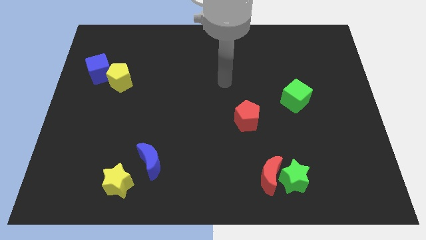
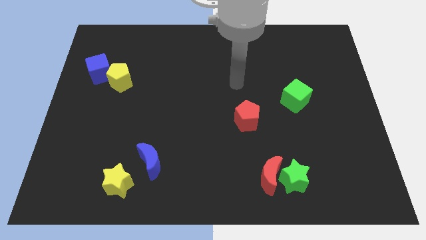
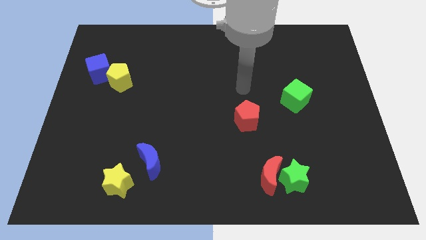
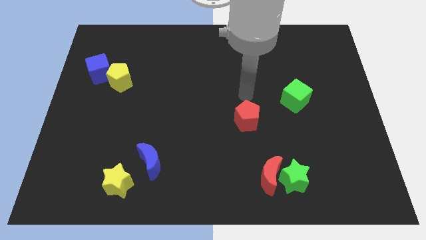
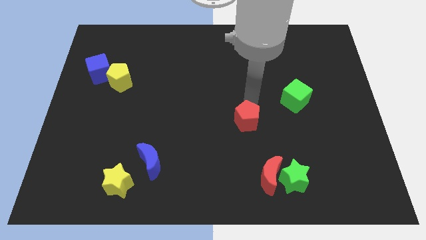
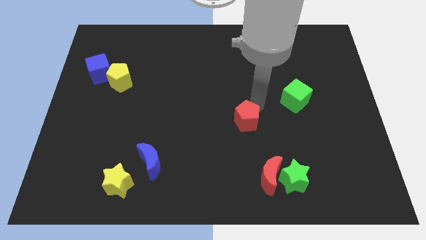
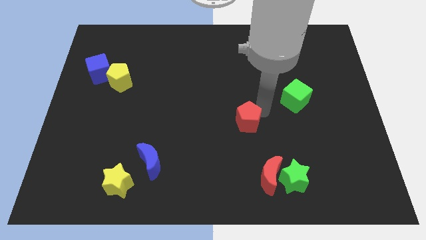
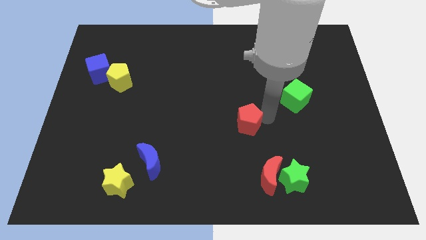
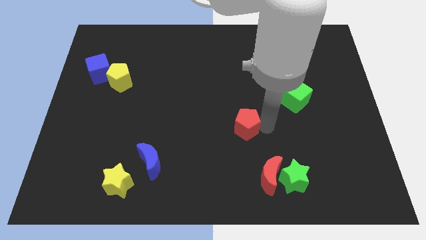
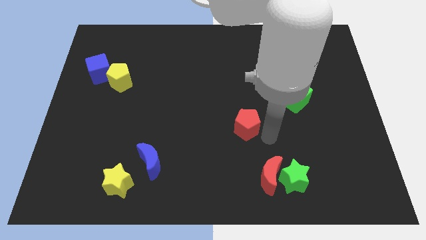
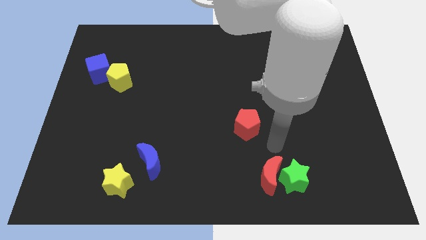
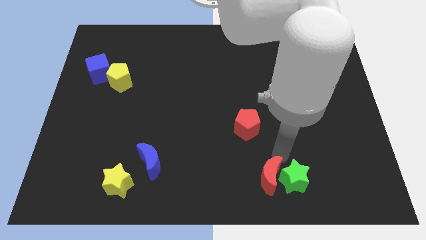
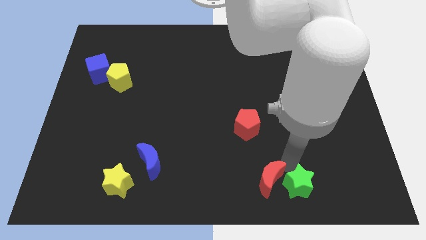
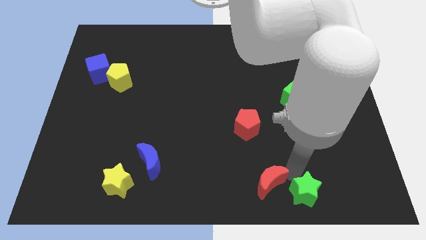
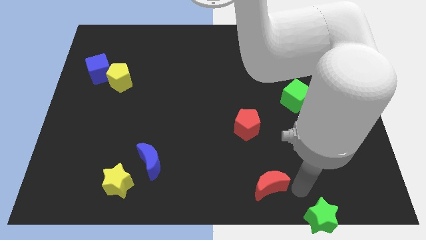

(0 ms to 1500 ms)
move the red moon away from the green star

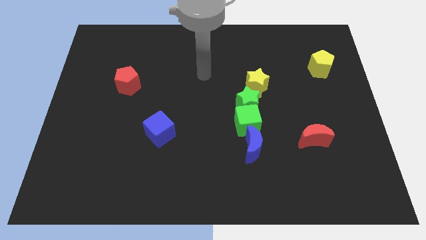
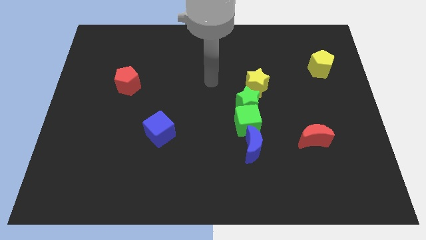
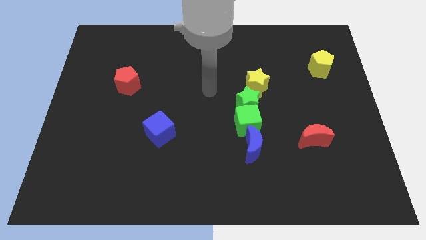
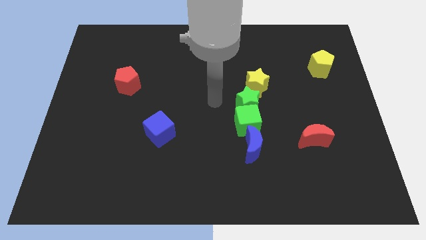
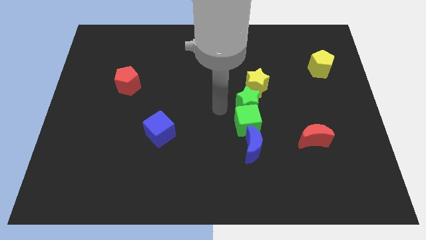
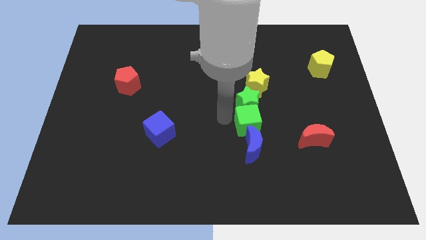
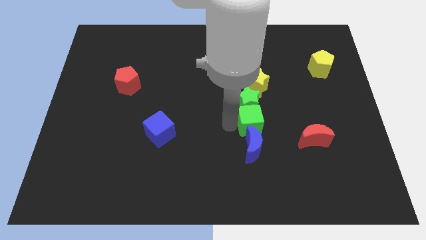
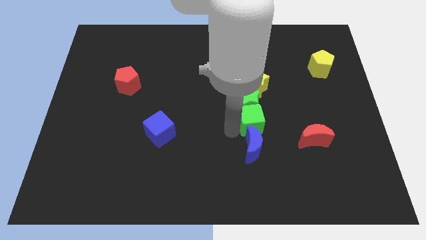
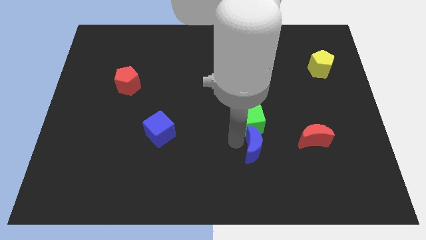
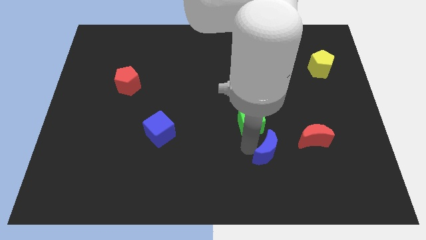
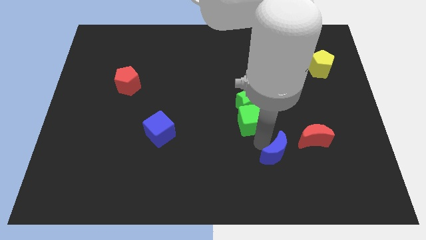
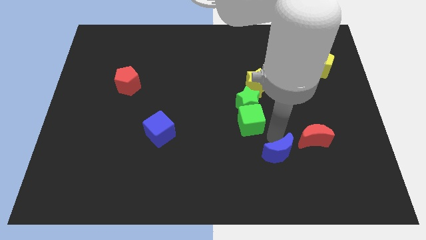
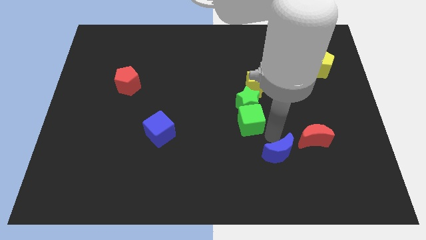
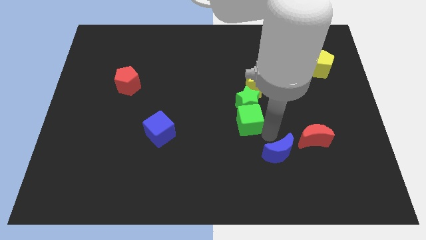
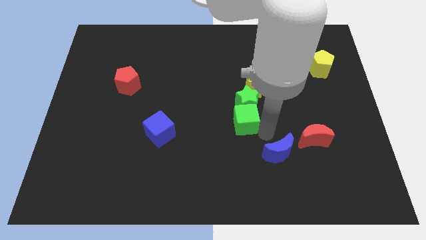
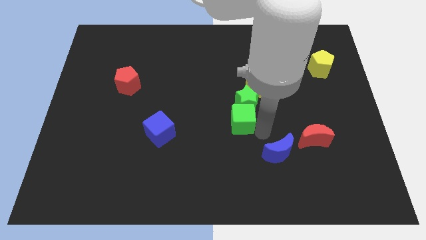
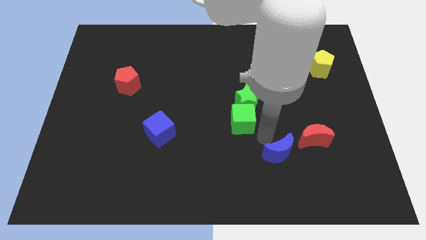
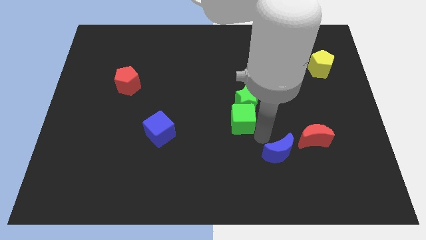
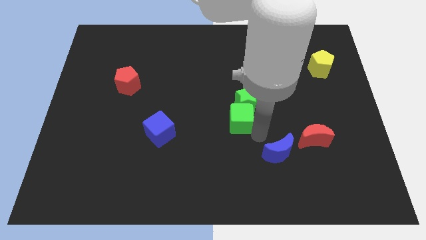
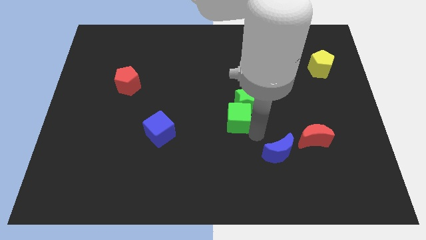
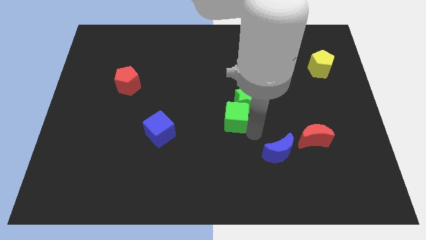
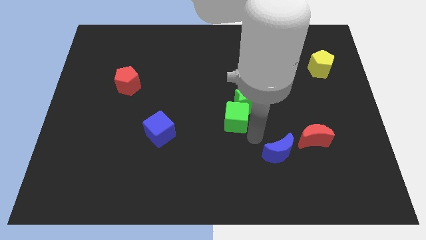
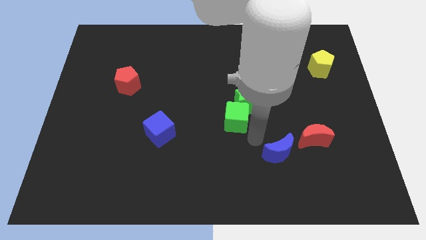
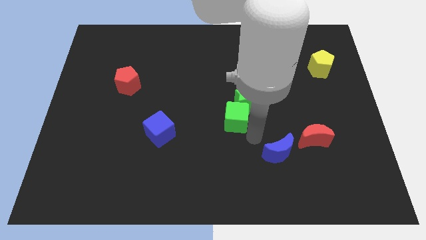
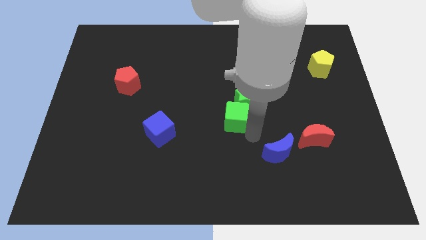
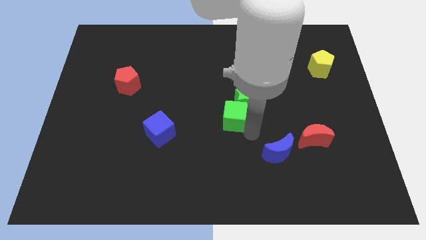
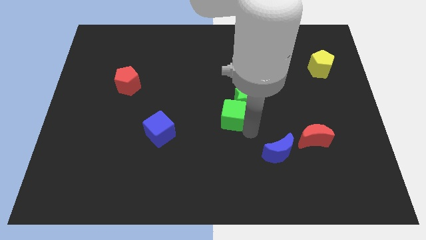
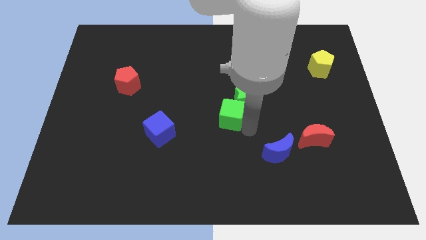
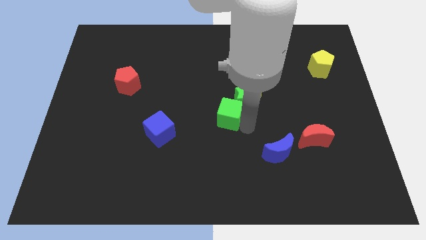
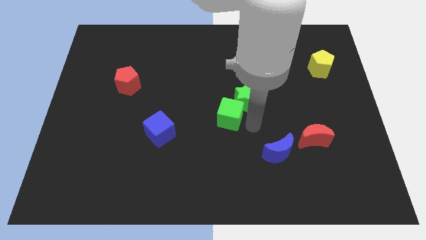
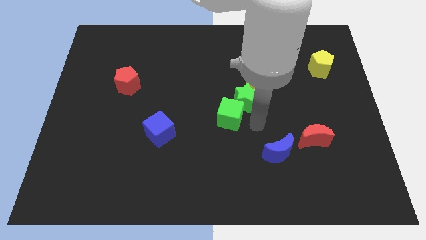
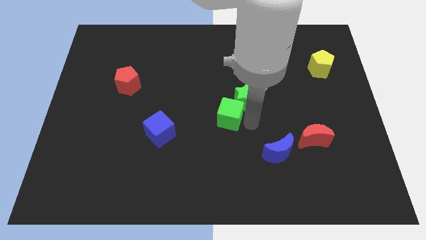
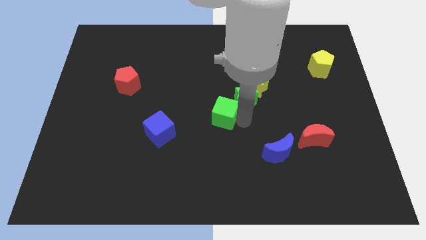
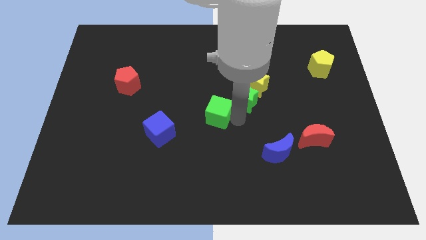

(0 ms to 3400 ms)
move the green cube away from the green star and blue moon

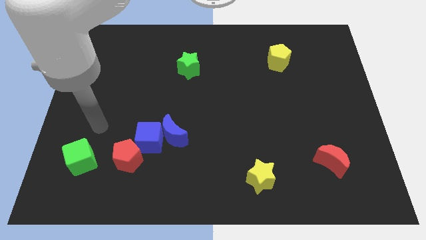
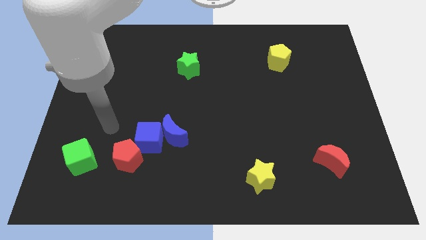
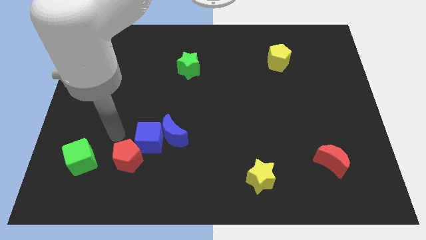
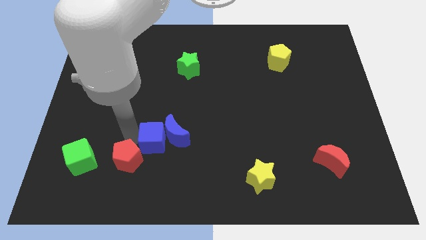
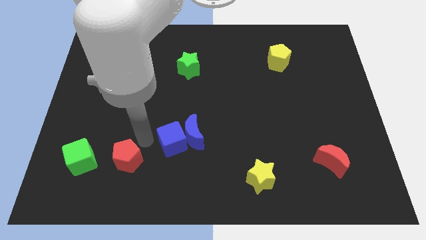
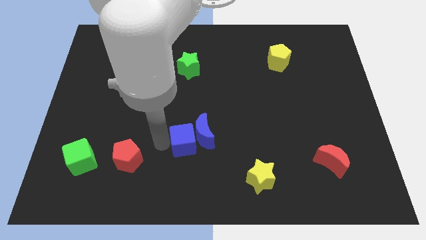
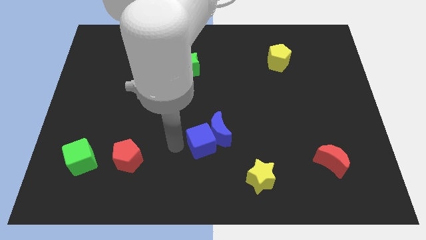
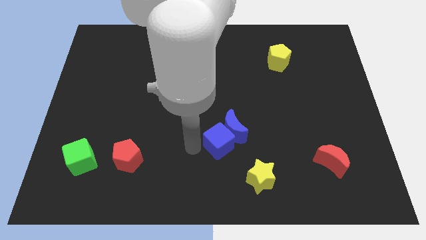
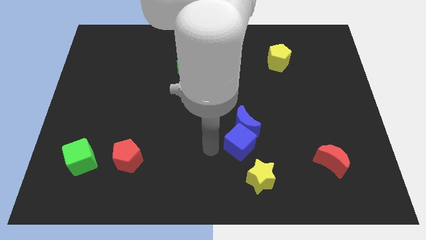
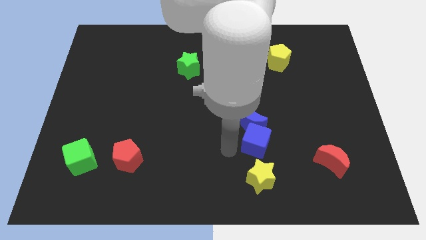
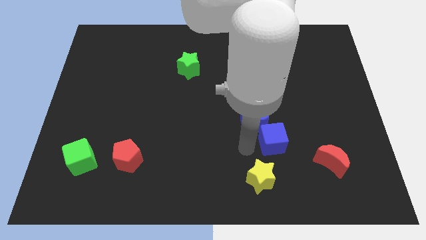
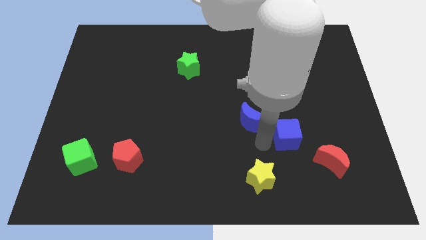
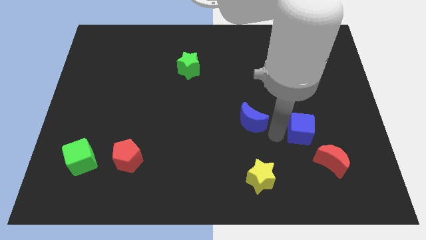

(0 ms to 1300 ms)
separate the blue moon from the blue cube

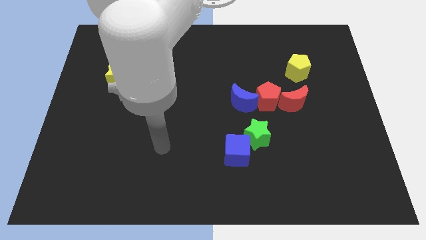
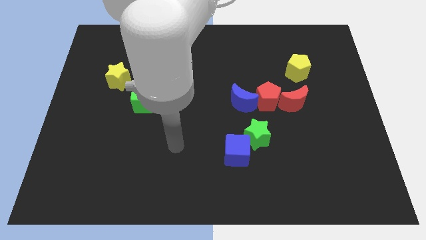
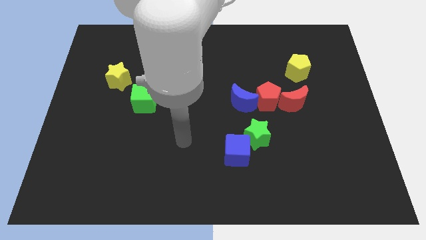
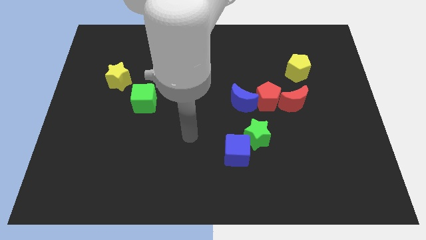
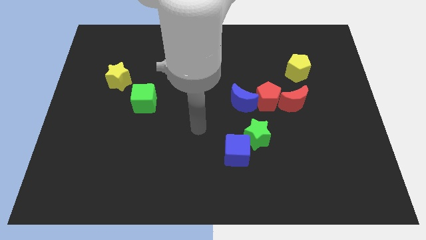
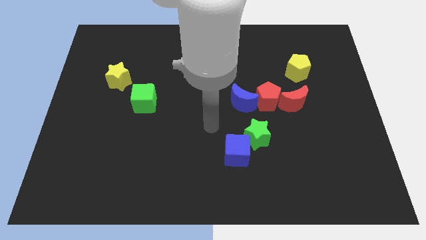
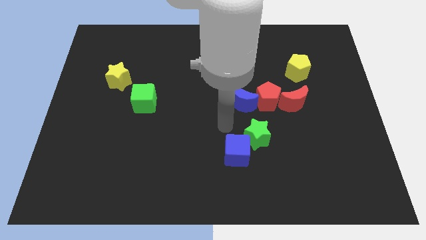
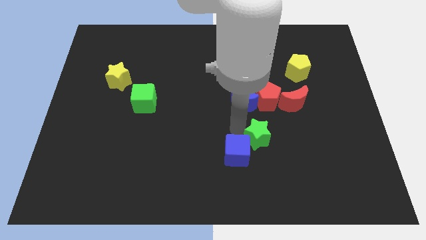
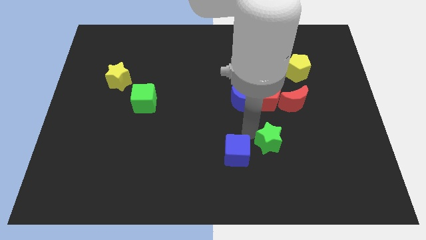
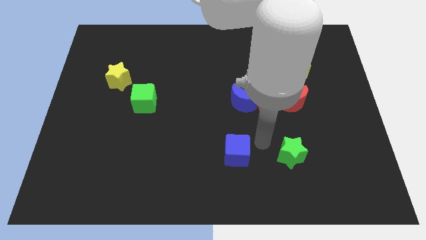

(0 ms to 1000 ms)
separate the blue cube from the green star

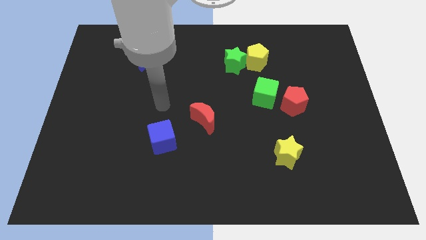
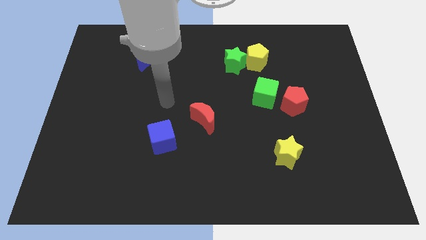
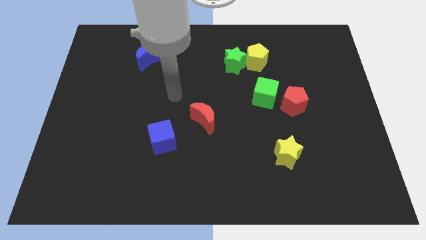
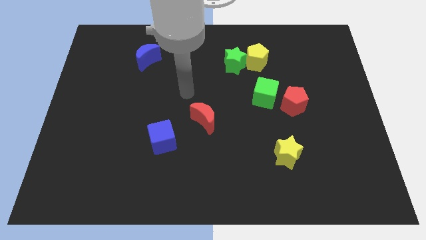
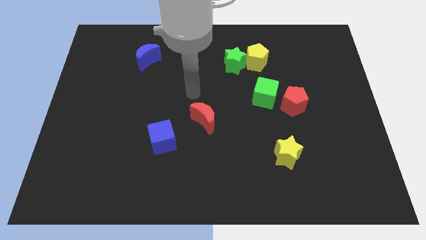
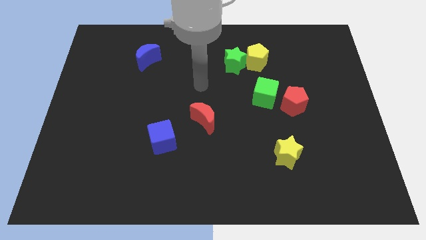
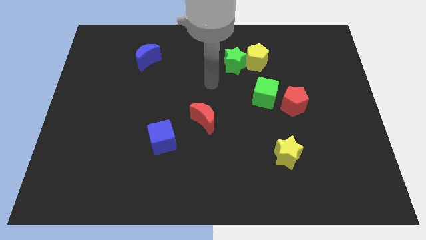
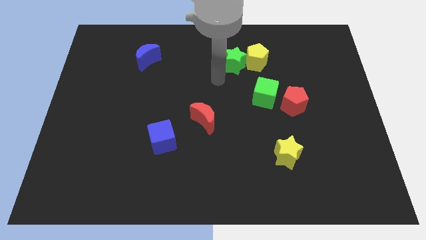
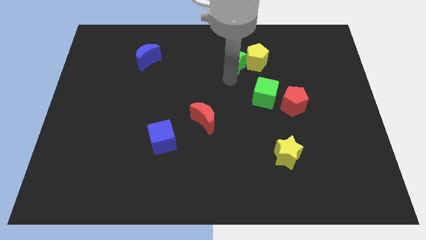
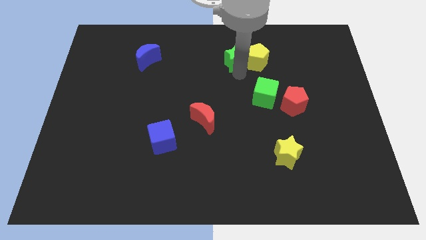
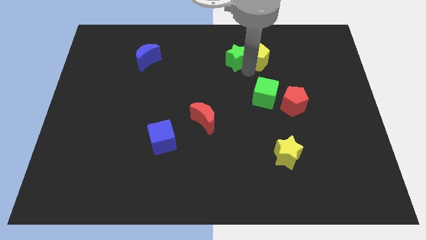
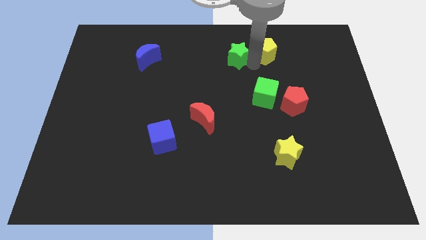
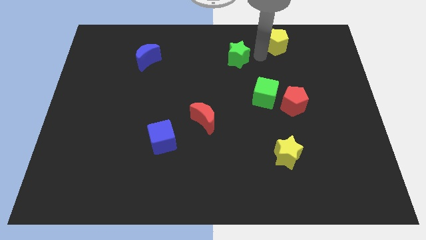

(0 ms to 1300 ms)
pull the green star apart from the yellow pentagon

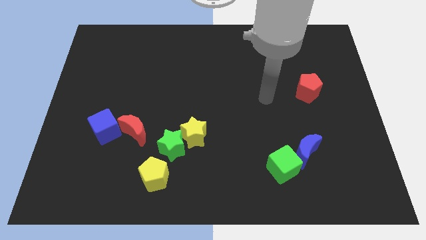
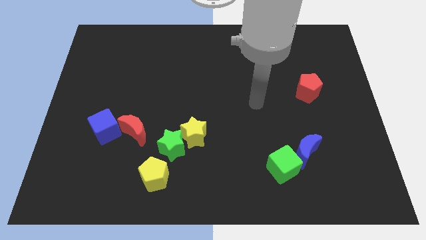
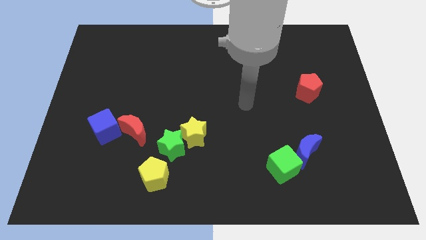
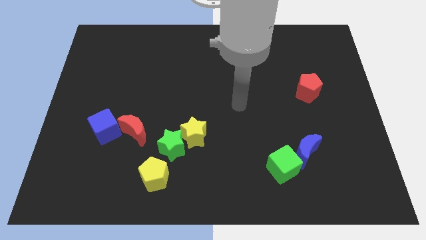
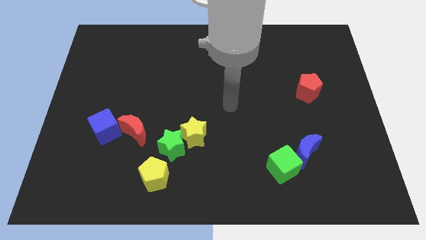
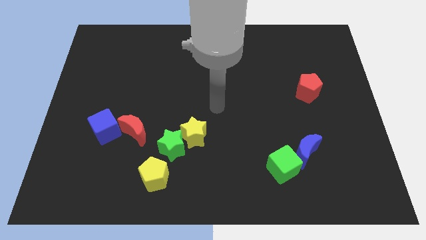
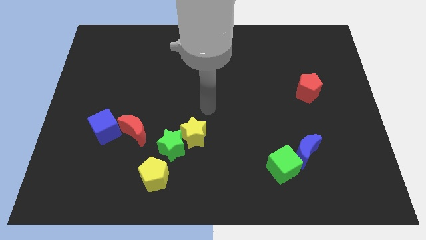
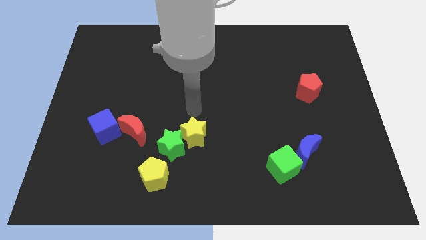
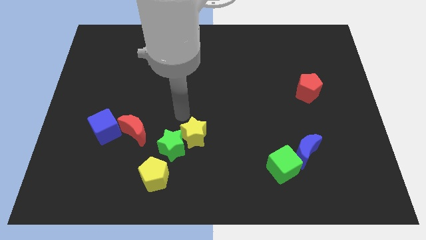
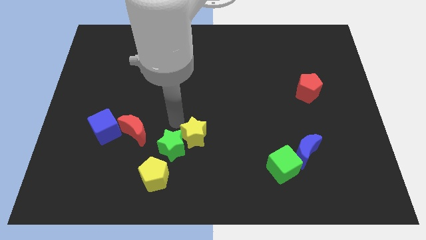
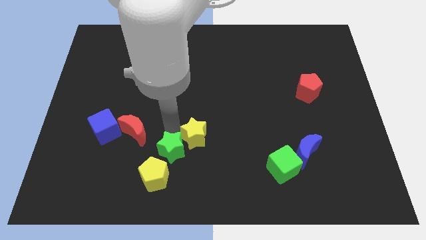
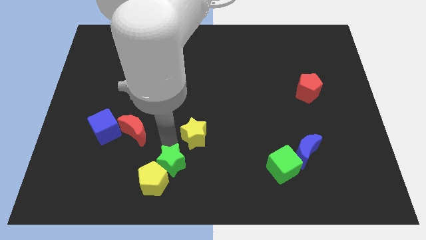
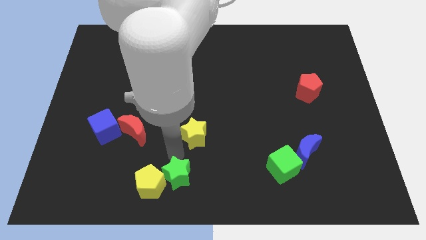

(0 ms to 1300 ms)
move the yellow star away from the green star
